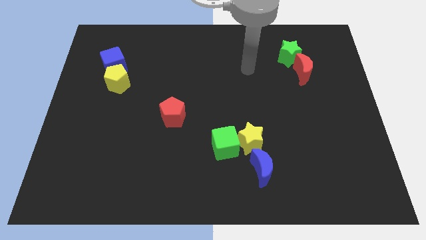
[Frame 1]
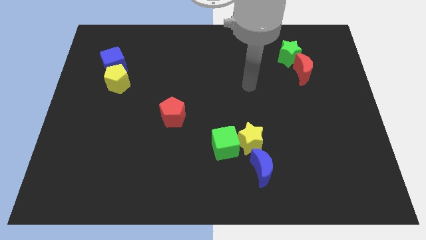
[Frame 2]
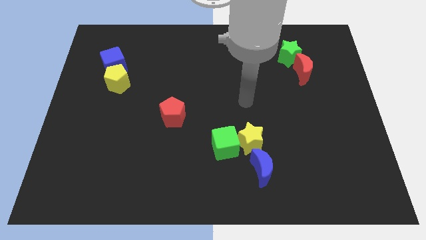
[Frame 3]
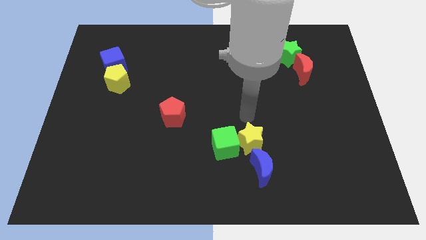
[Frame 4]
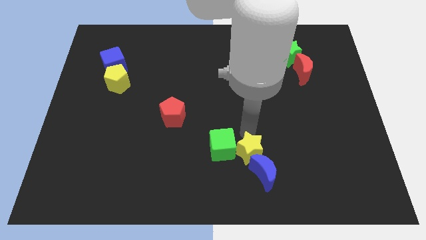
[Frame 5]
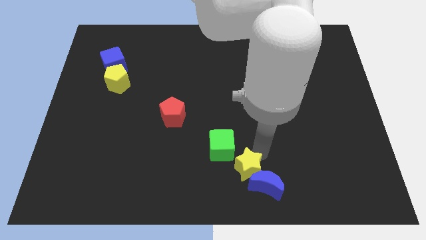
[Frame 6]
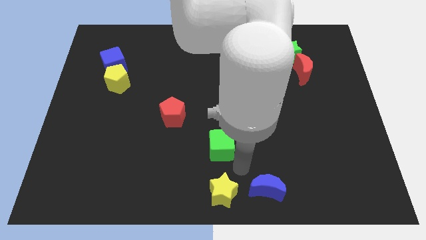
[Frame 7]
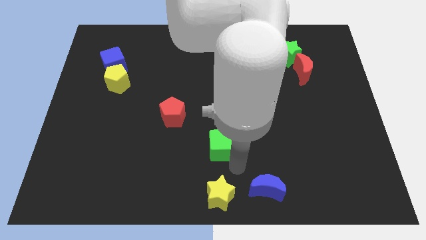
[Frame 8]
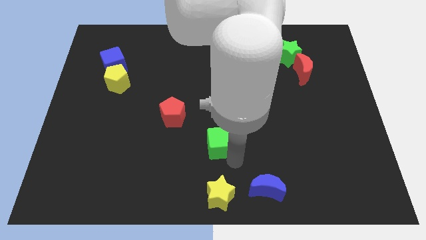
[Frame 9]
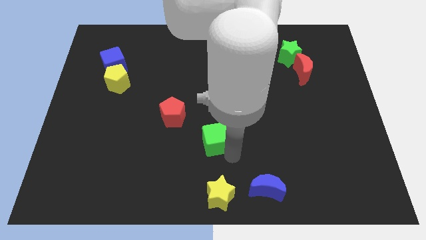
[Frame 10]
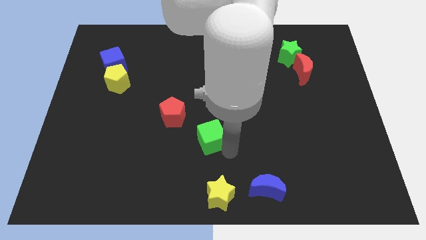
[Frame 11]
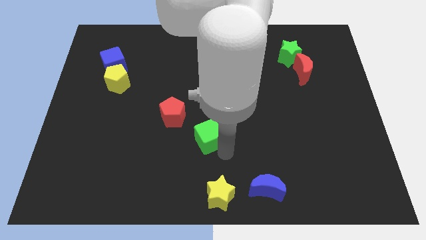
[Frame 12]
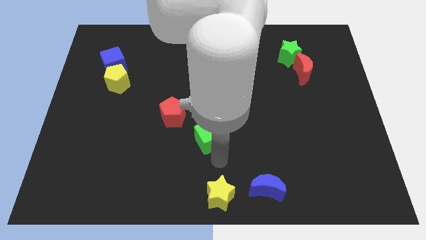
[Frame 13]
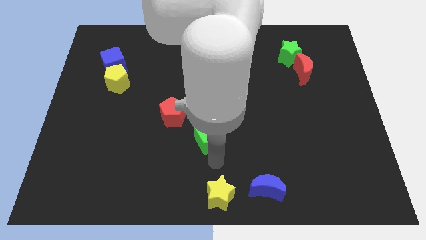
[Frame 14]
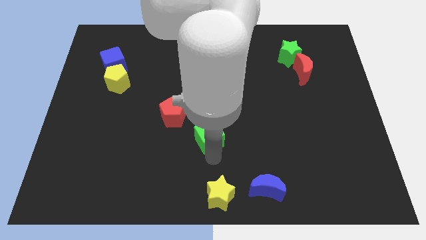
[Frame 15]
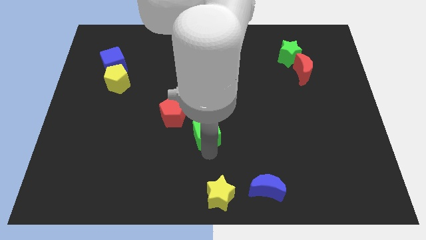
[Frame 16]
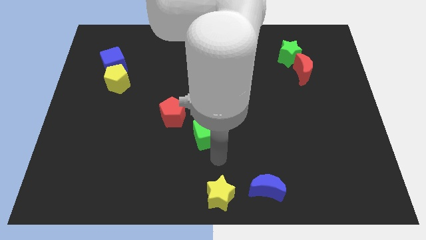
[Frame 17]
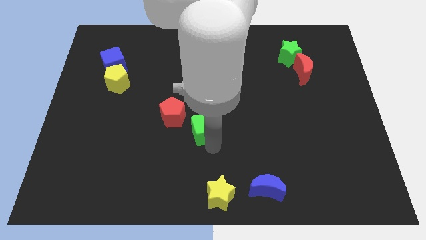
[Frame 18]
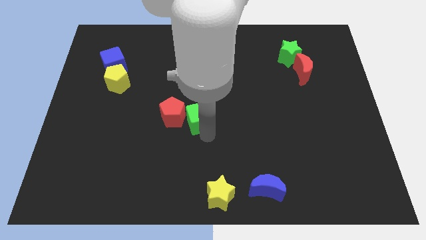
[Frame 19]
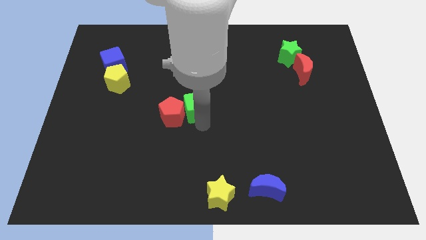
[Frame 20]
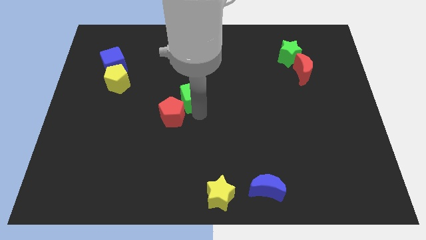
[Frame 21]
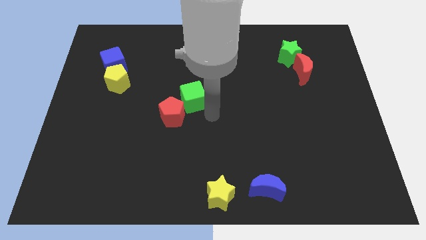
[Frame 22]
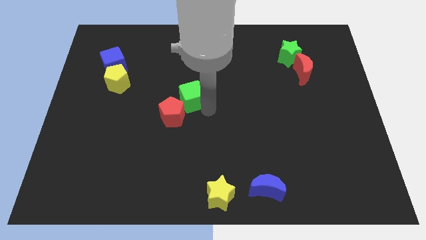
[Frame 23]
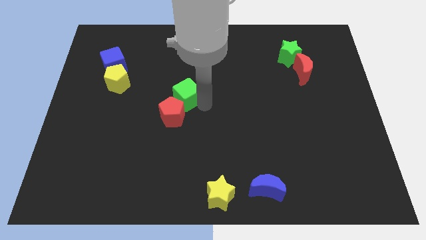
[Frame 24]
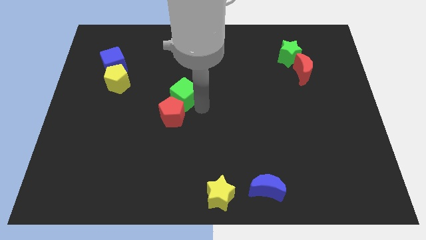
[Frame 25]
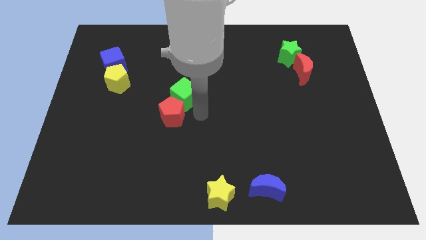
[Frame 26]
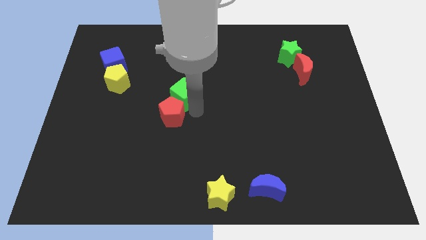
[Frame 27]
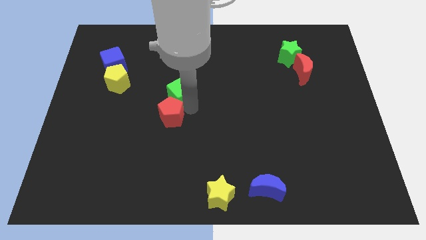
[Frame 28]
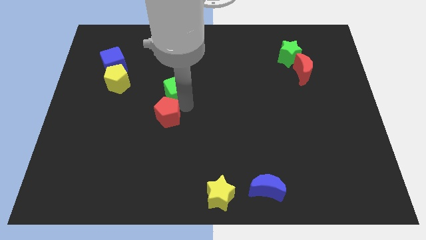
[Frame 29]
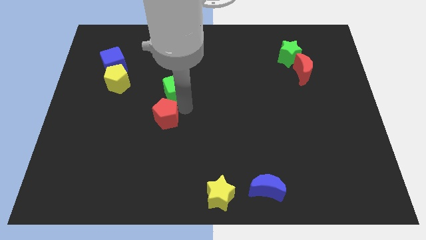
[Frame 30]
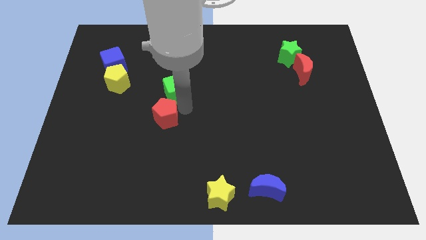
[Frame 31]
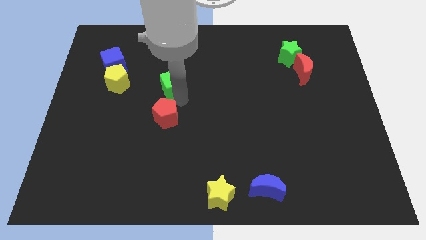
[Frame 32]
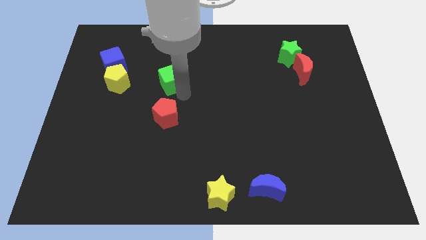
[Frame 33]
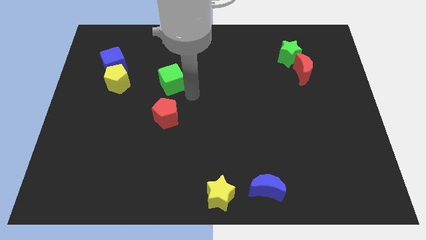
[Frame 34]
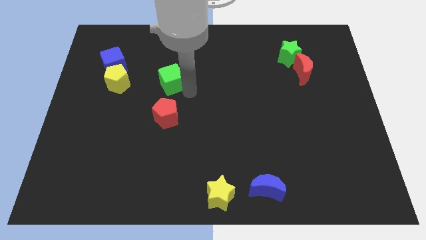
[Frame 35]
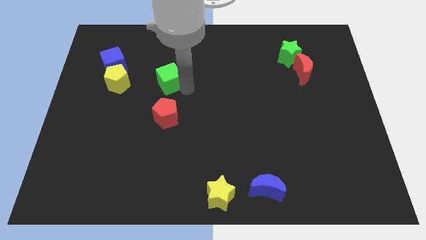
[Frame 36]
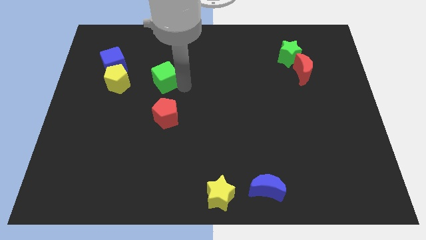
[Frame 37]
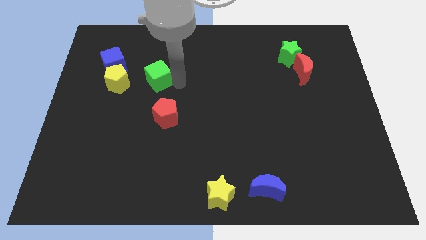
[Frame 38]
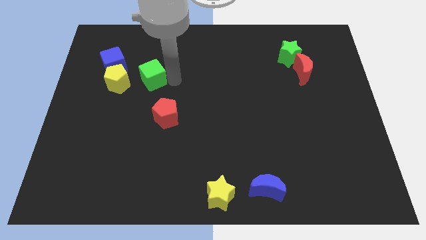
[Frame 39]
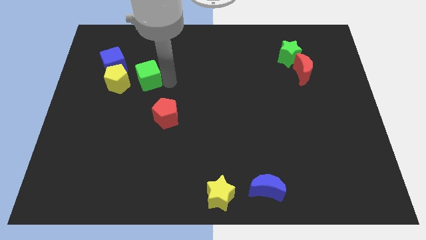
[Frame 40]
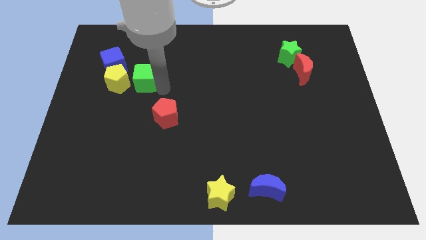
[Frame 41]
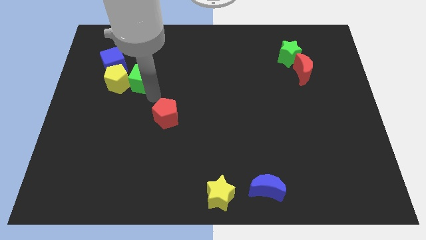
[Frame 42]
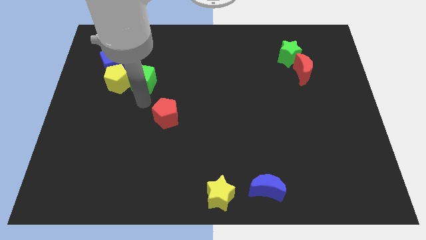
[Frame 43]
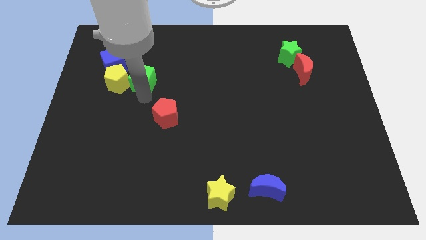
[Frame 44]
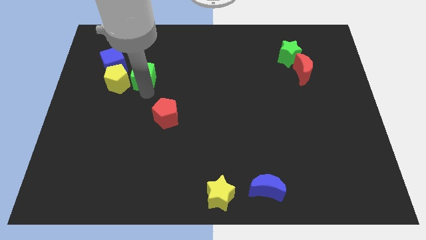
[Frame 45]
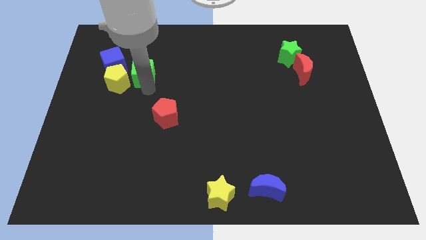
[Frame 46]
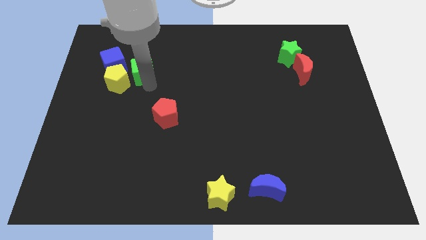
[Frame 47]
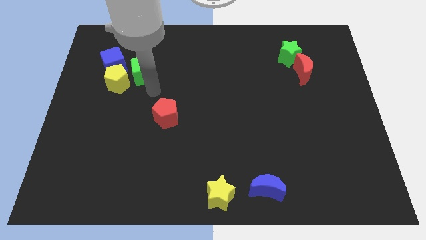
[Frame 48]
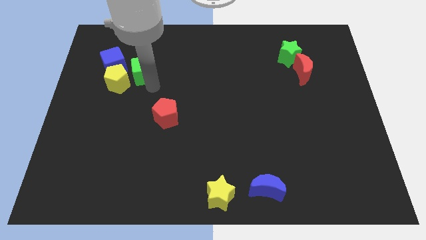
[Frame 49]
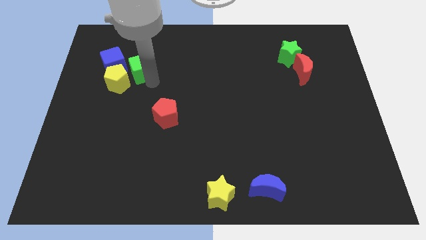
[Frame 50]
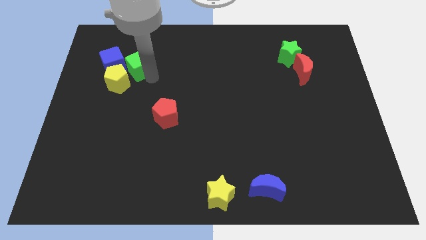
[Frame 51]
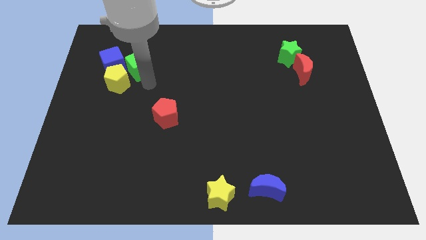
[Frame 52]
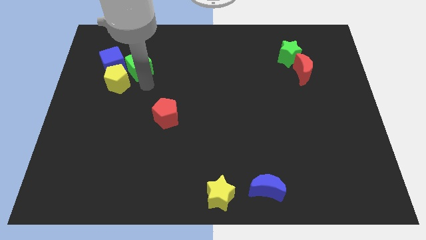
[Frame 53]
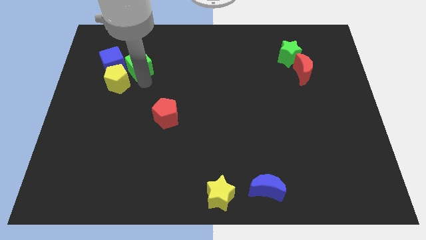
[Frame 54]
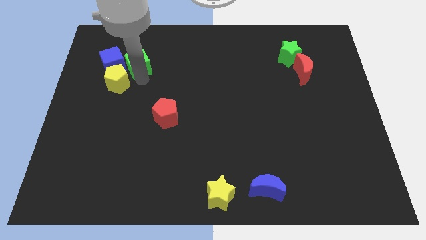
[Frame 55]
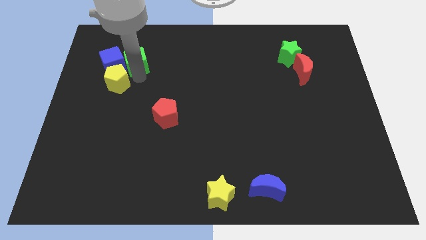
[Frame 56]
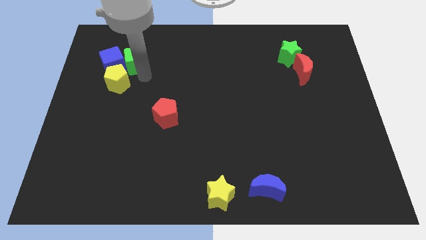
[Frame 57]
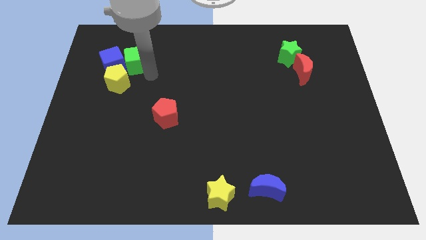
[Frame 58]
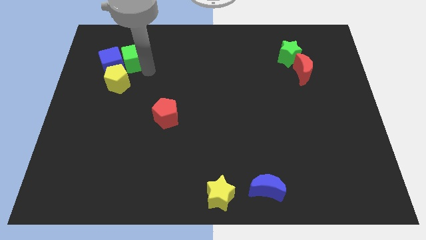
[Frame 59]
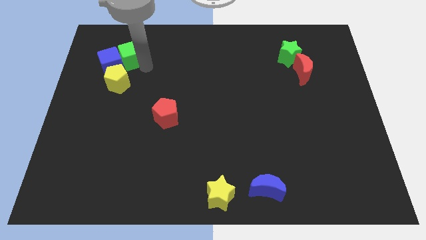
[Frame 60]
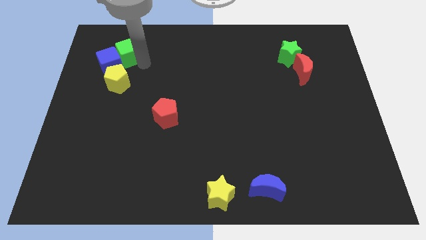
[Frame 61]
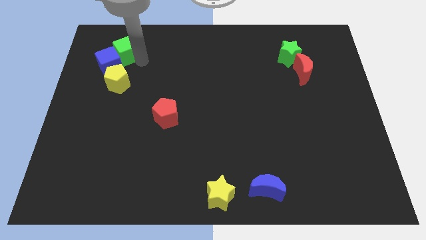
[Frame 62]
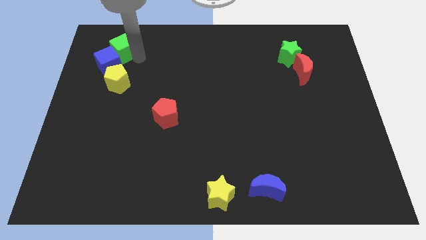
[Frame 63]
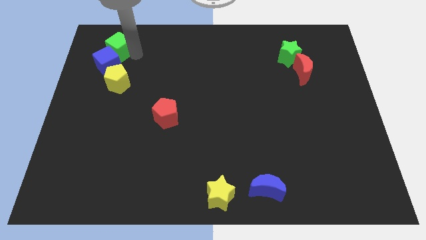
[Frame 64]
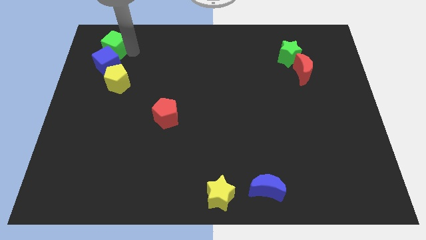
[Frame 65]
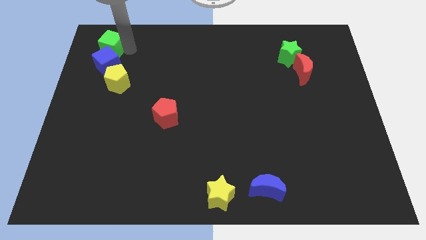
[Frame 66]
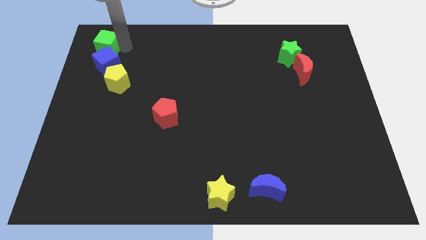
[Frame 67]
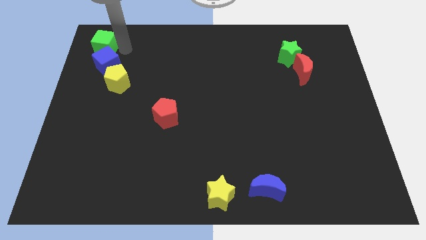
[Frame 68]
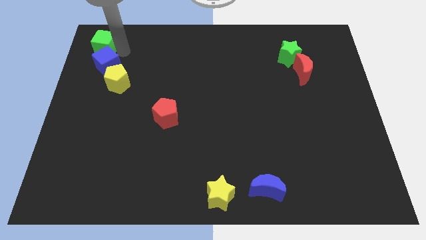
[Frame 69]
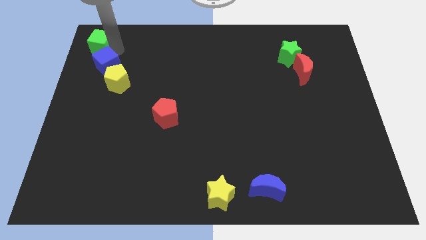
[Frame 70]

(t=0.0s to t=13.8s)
move the green cube to the top left
